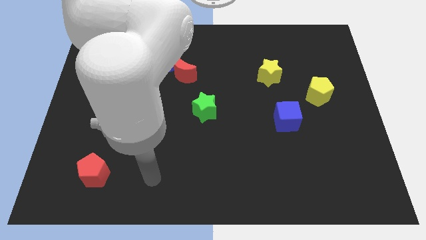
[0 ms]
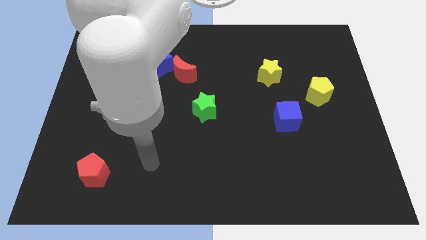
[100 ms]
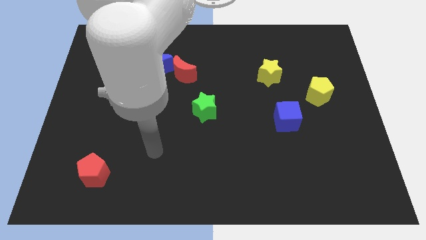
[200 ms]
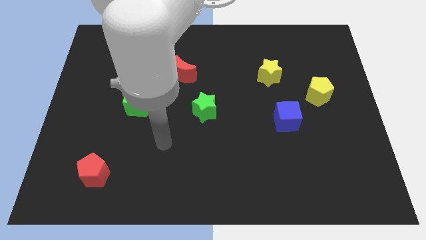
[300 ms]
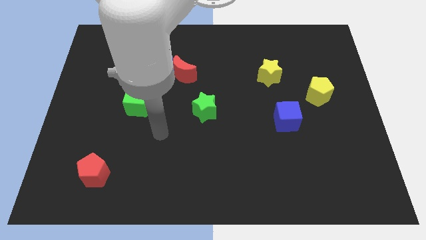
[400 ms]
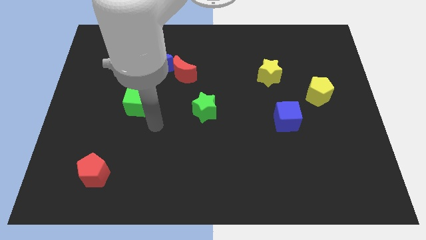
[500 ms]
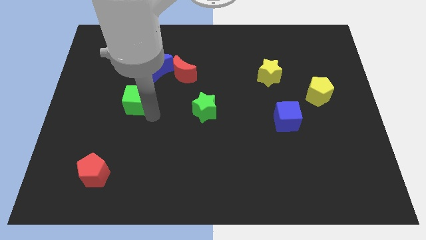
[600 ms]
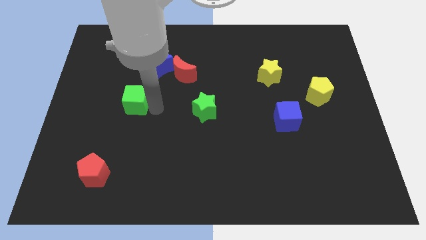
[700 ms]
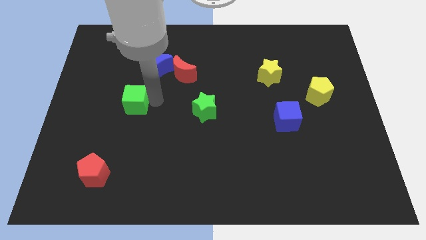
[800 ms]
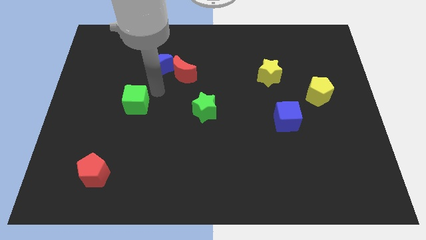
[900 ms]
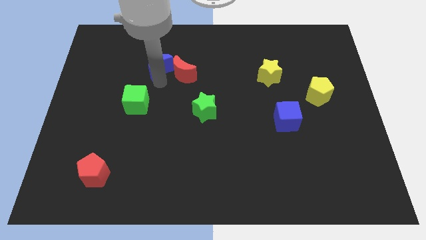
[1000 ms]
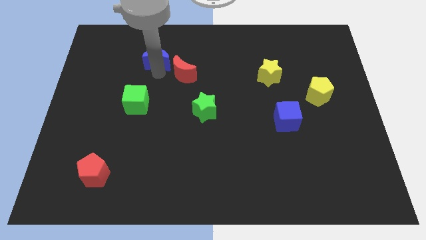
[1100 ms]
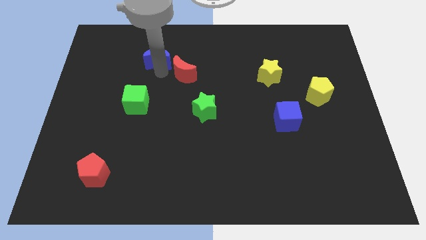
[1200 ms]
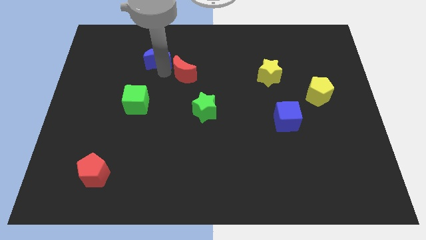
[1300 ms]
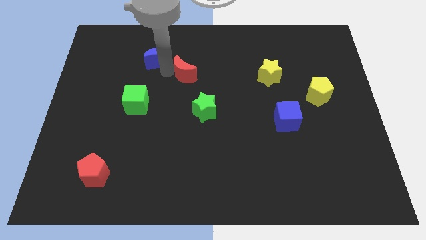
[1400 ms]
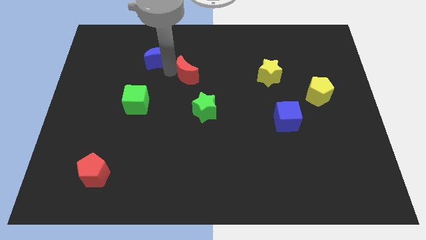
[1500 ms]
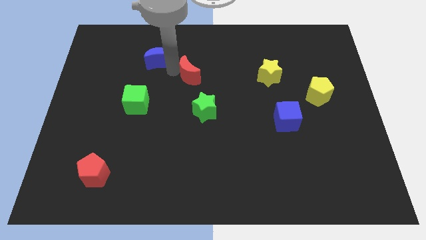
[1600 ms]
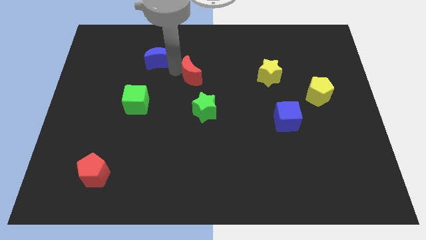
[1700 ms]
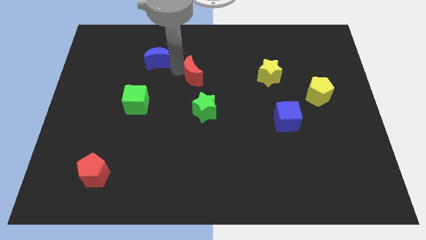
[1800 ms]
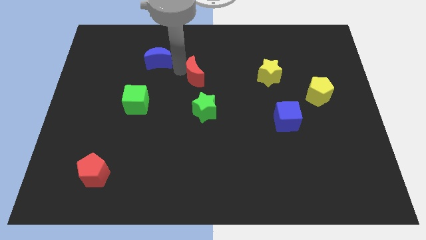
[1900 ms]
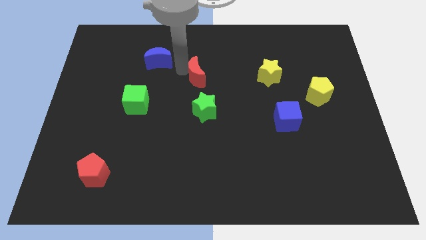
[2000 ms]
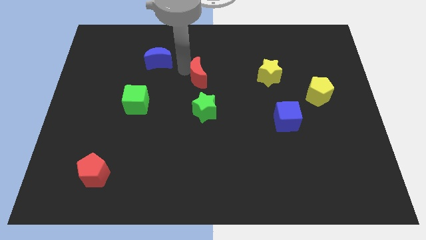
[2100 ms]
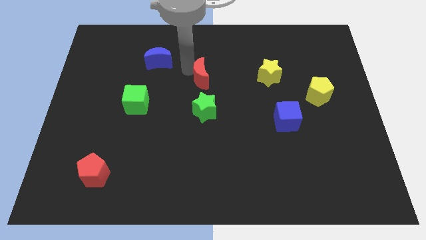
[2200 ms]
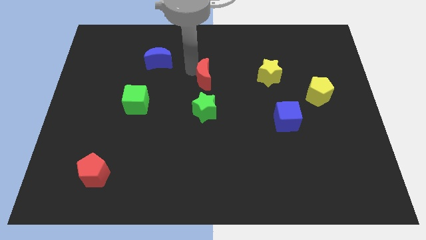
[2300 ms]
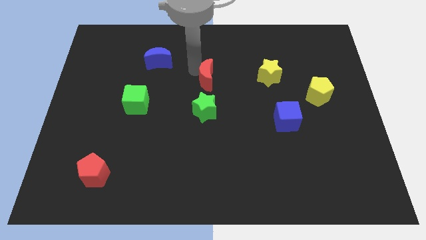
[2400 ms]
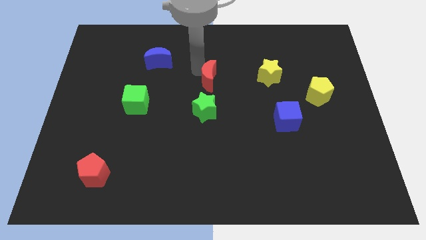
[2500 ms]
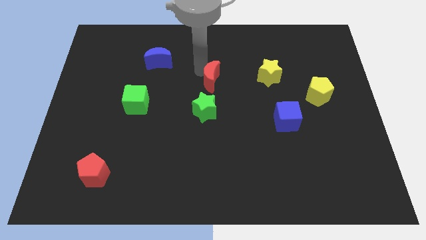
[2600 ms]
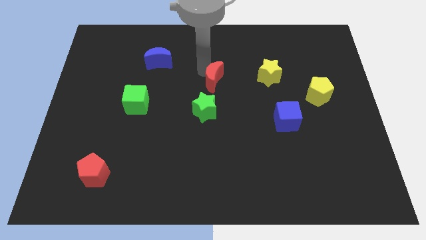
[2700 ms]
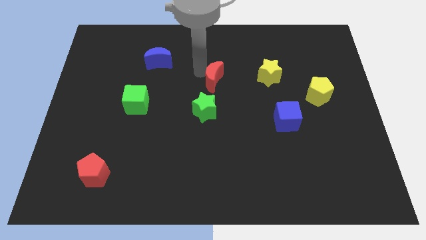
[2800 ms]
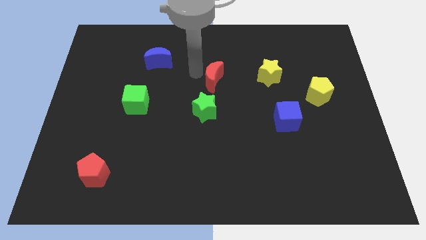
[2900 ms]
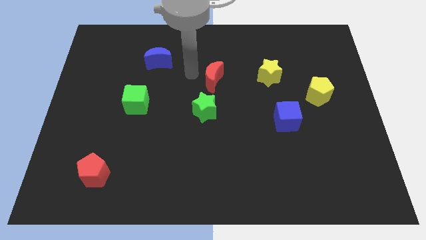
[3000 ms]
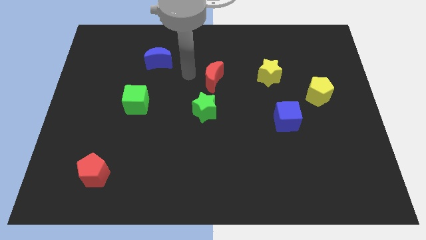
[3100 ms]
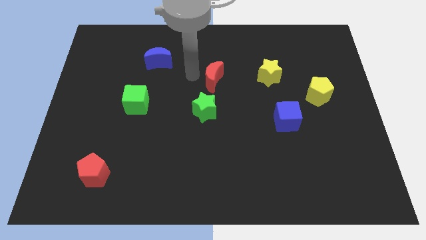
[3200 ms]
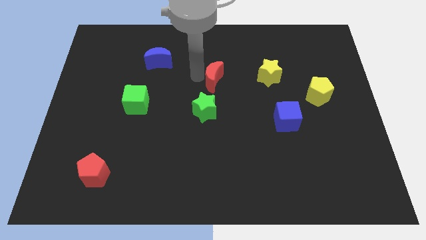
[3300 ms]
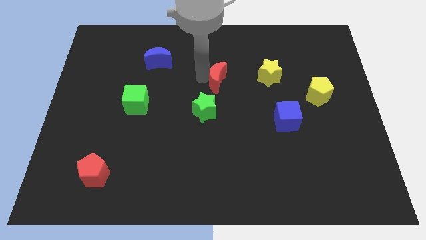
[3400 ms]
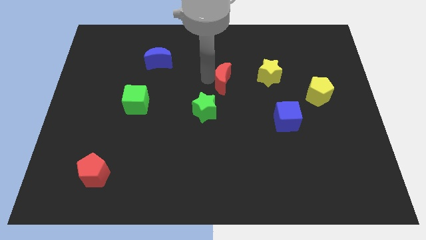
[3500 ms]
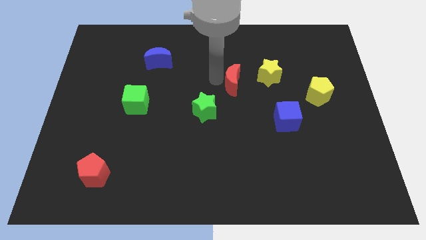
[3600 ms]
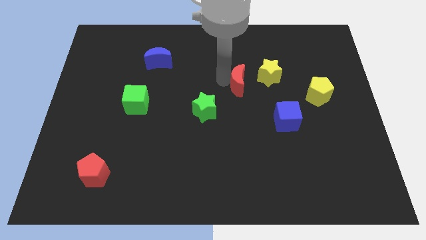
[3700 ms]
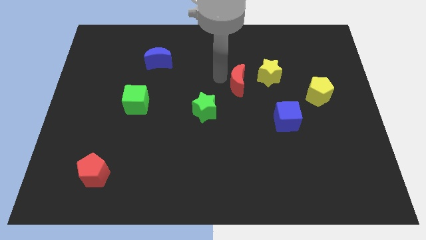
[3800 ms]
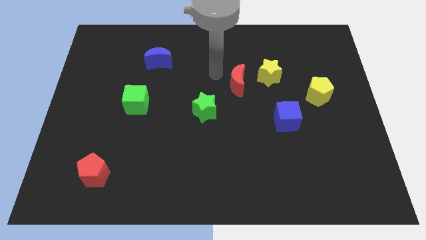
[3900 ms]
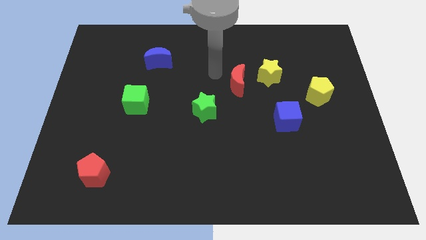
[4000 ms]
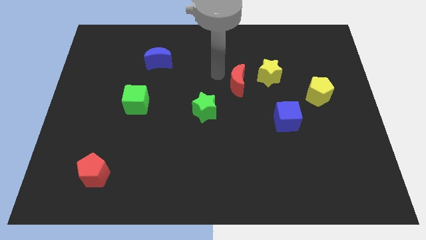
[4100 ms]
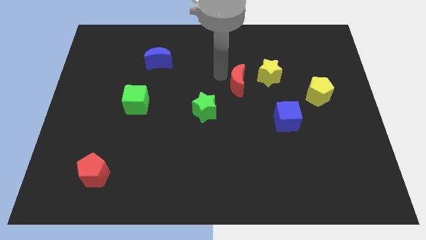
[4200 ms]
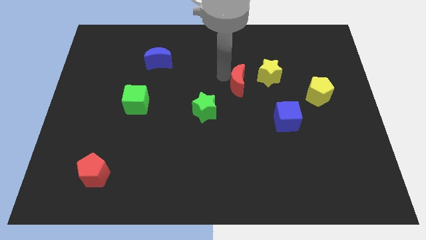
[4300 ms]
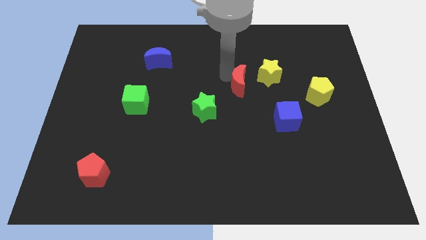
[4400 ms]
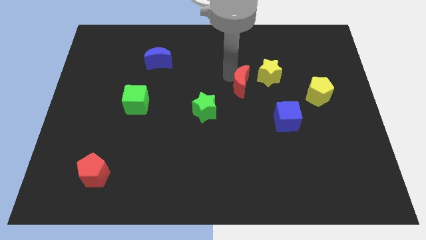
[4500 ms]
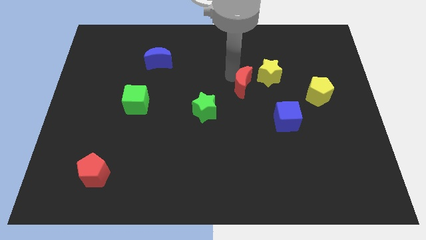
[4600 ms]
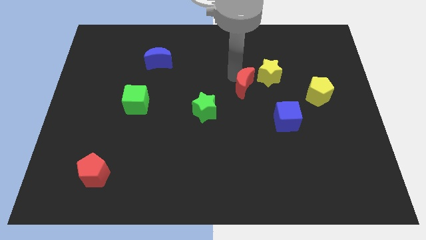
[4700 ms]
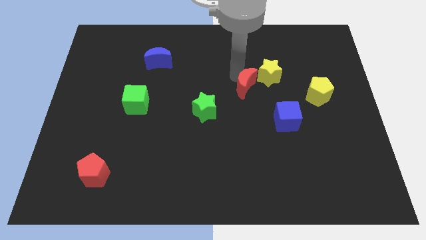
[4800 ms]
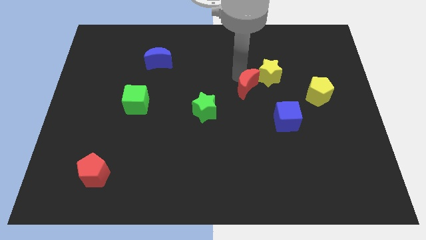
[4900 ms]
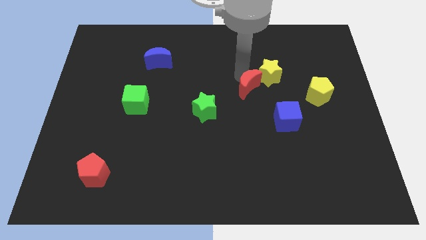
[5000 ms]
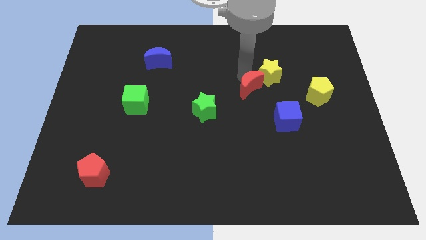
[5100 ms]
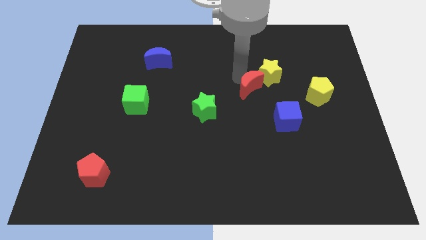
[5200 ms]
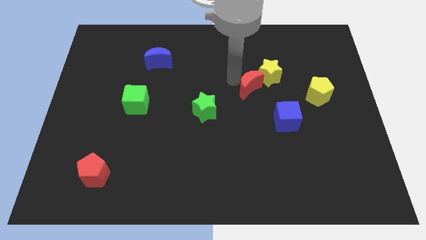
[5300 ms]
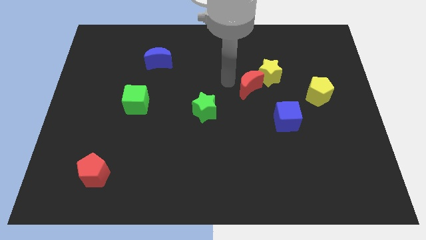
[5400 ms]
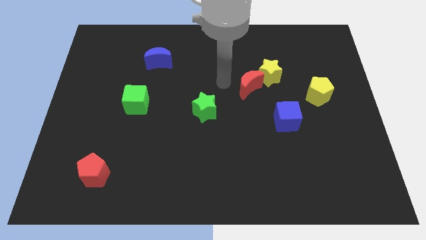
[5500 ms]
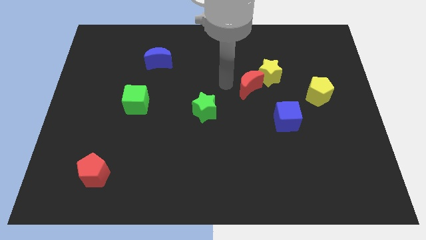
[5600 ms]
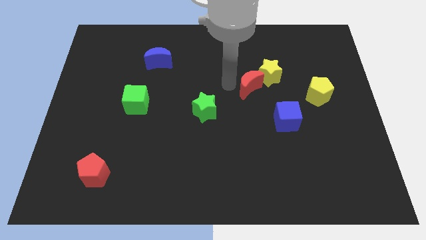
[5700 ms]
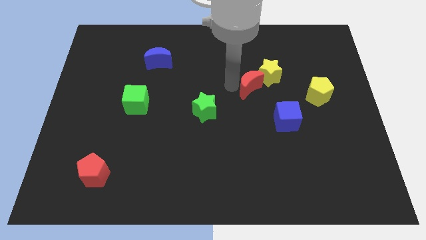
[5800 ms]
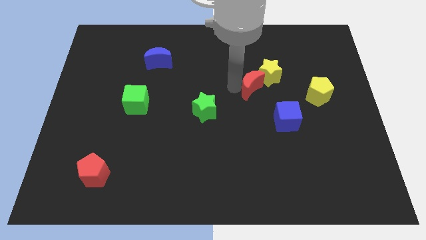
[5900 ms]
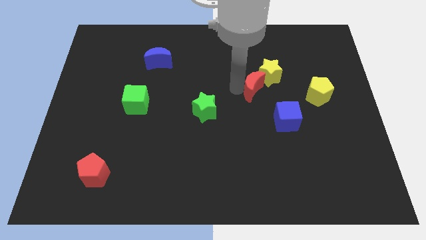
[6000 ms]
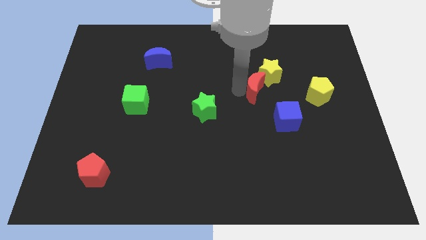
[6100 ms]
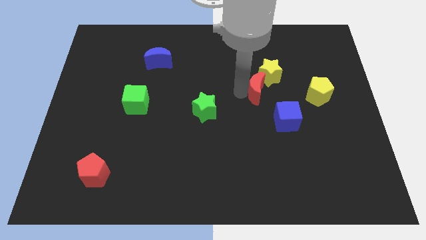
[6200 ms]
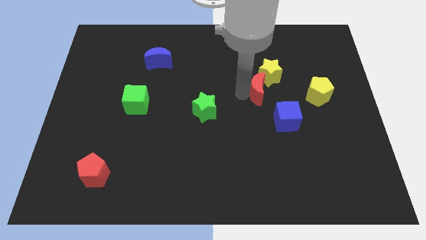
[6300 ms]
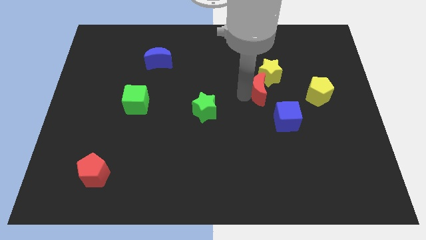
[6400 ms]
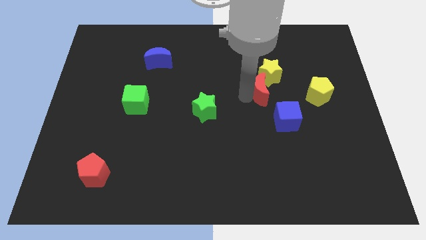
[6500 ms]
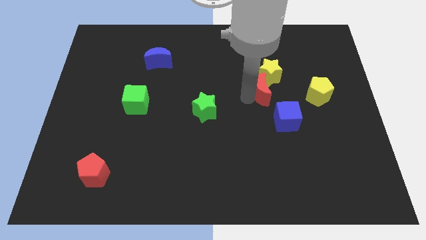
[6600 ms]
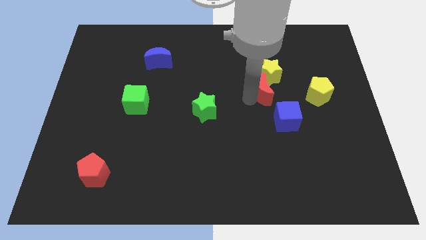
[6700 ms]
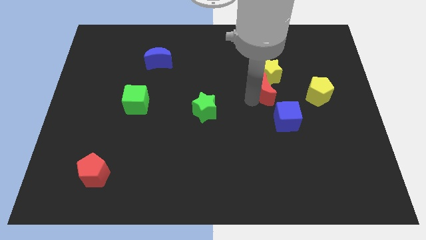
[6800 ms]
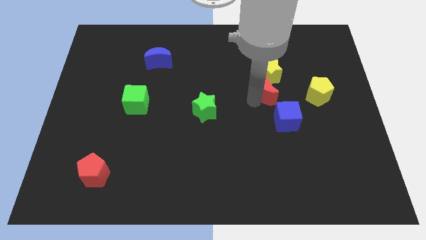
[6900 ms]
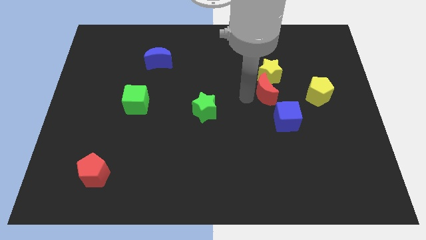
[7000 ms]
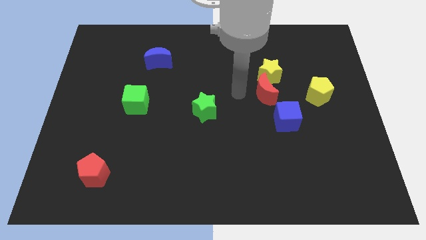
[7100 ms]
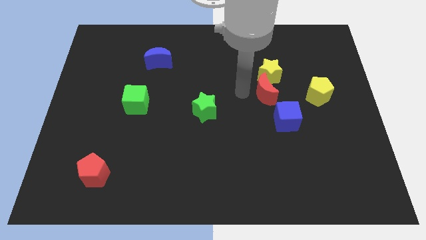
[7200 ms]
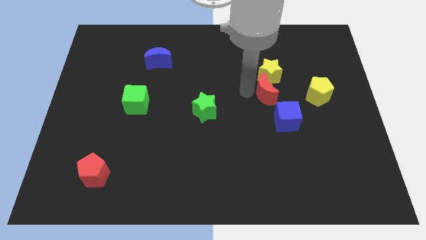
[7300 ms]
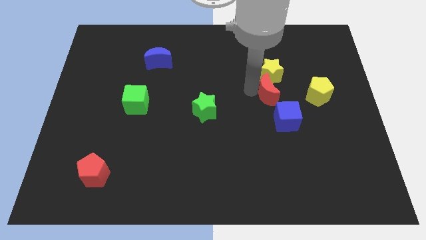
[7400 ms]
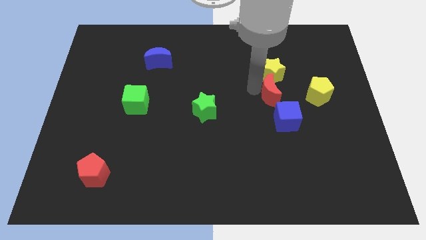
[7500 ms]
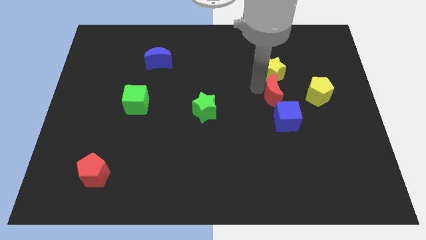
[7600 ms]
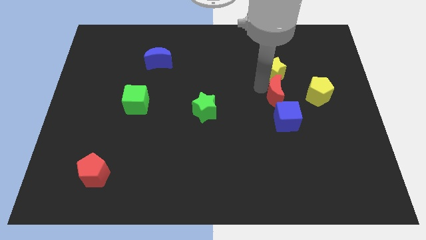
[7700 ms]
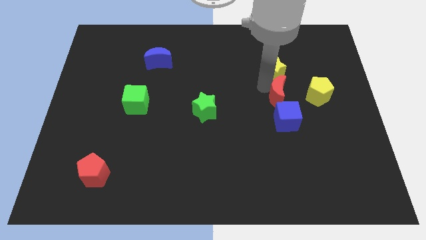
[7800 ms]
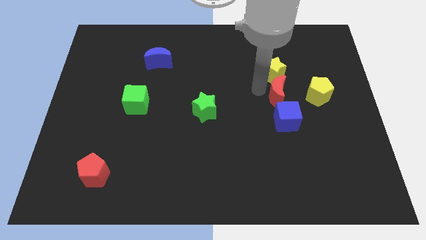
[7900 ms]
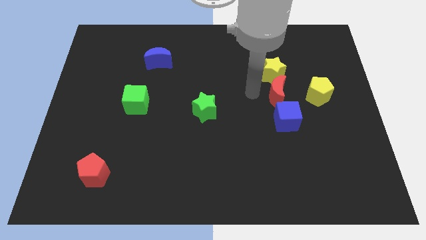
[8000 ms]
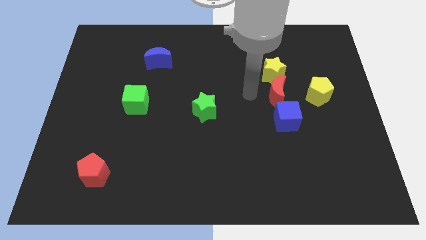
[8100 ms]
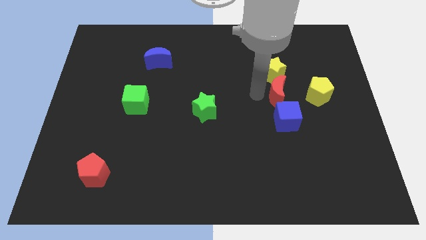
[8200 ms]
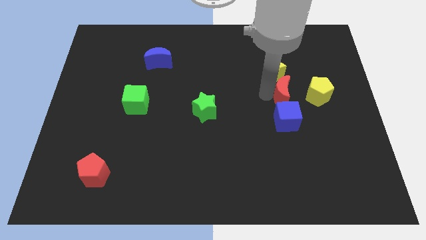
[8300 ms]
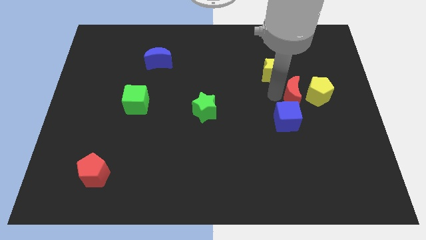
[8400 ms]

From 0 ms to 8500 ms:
push the red moon to the yellow pentagon
